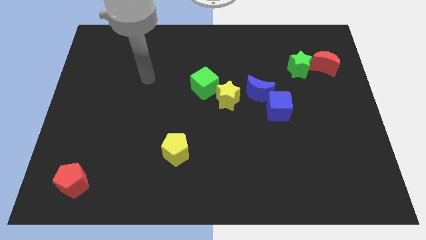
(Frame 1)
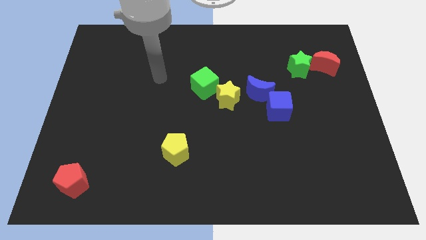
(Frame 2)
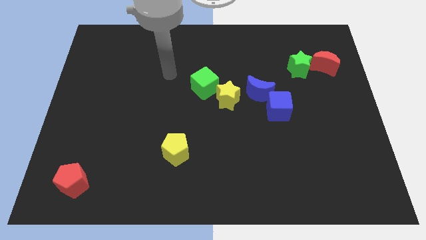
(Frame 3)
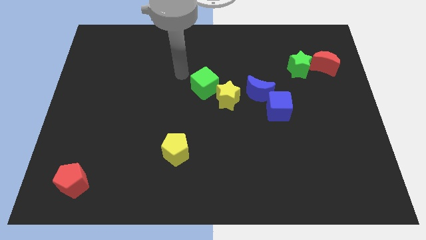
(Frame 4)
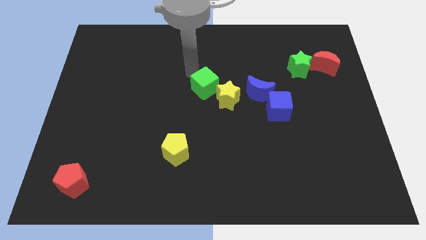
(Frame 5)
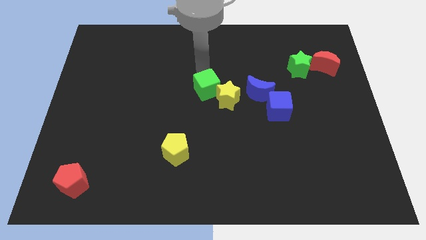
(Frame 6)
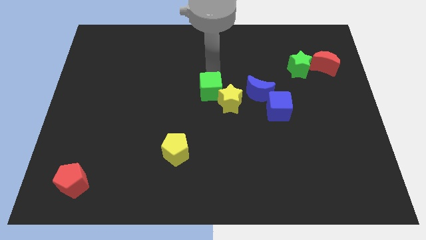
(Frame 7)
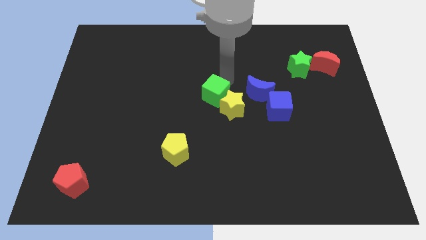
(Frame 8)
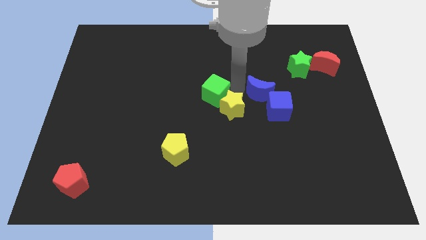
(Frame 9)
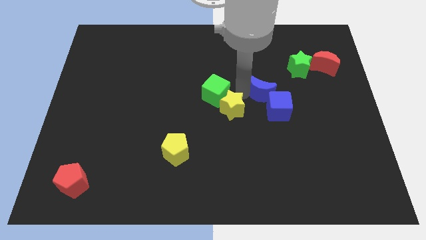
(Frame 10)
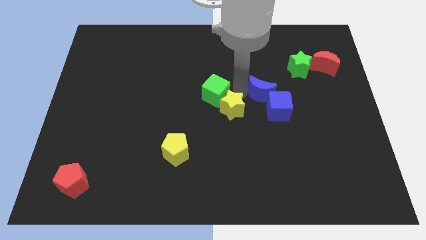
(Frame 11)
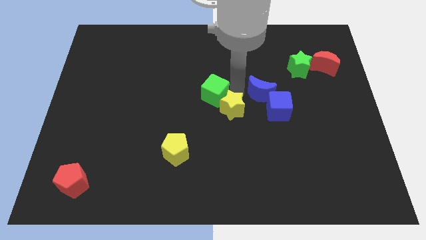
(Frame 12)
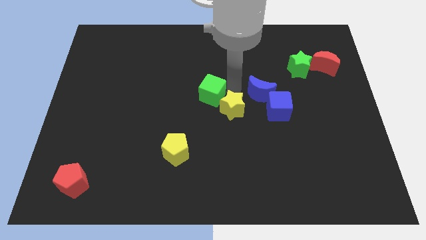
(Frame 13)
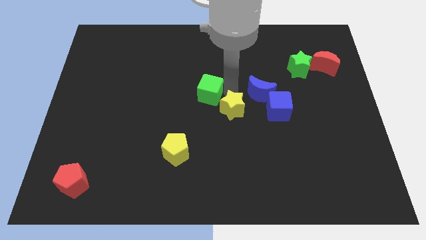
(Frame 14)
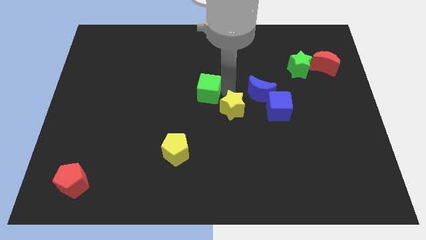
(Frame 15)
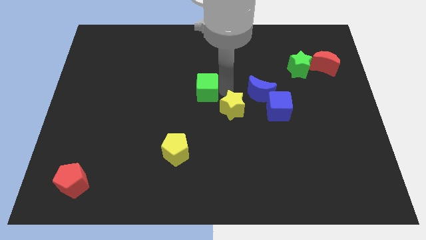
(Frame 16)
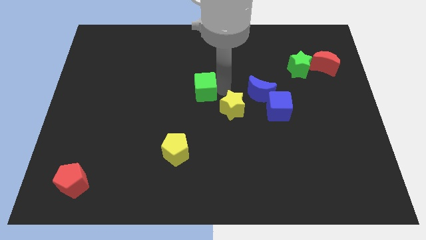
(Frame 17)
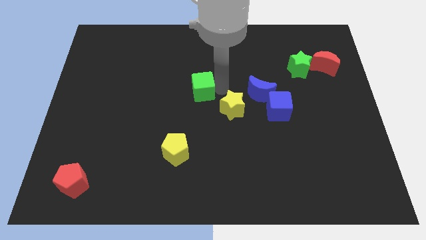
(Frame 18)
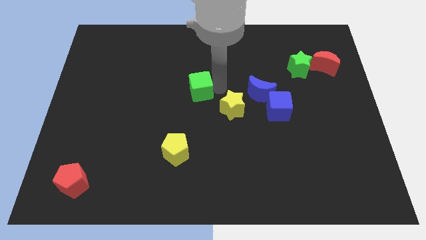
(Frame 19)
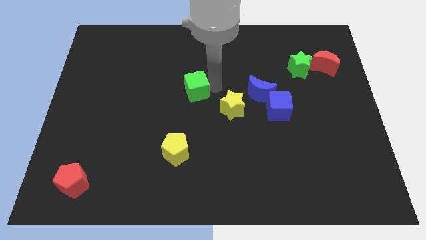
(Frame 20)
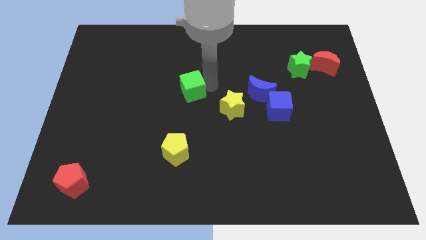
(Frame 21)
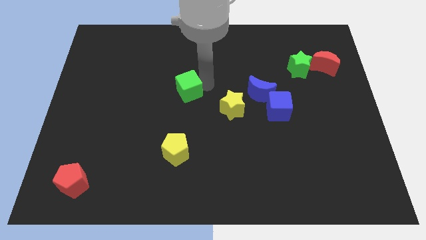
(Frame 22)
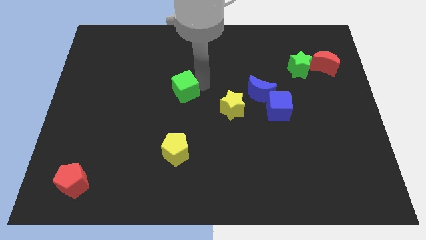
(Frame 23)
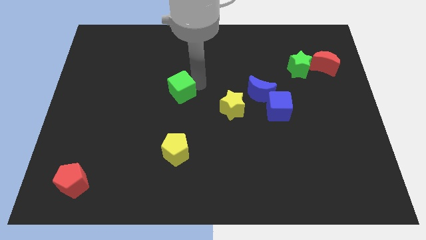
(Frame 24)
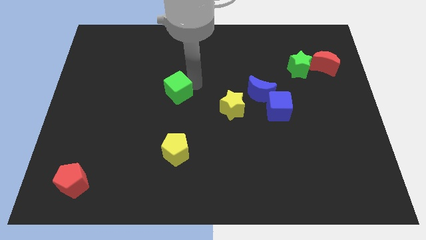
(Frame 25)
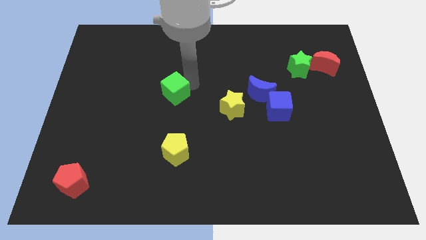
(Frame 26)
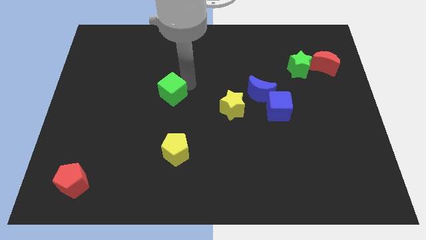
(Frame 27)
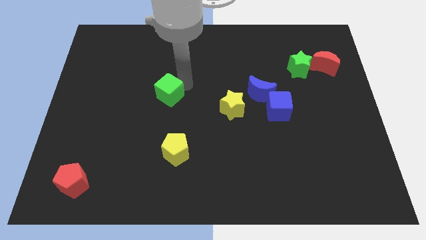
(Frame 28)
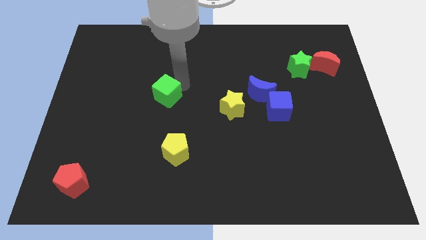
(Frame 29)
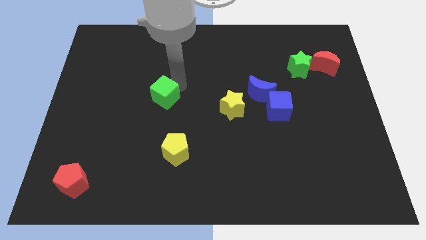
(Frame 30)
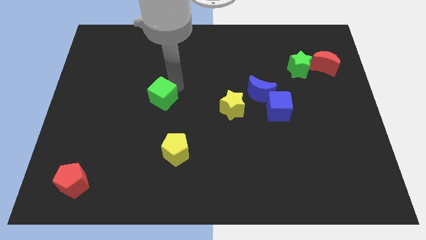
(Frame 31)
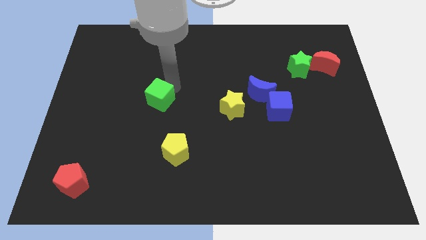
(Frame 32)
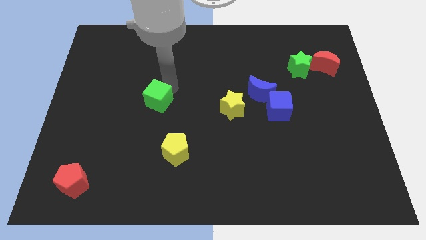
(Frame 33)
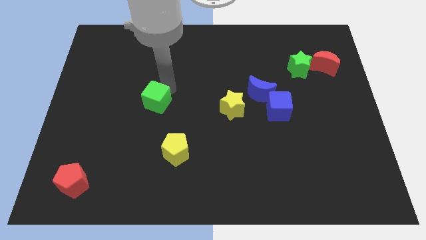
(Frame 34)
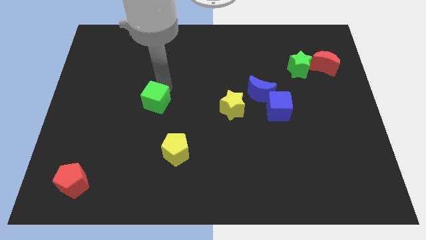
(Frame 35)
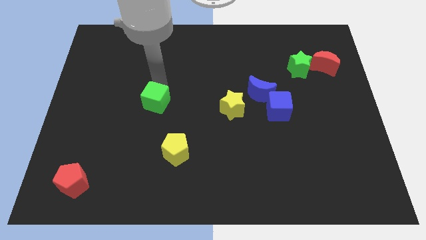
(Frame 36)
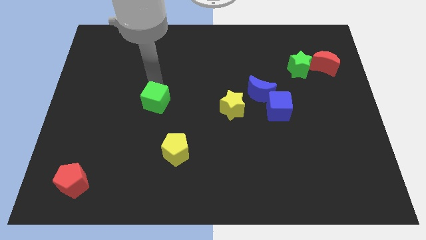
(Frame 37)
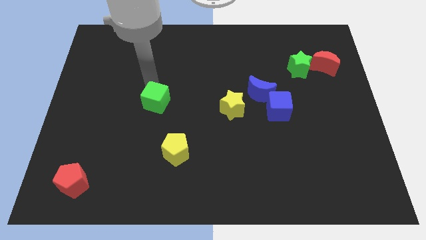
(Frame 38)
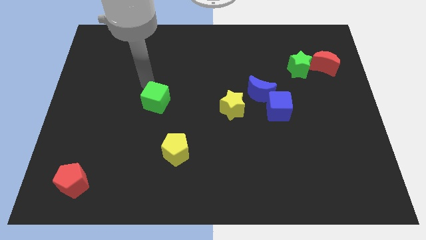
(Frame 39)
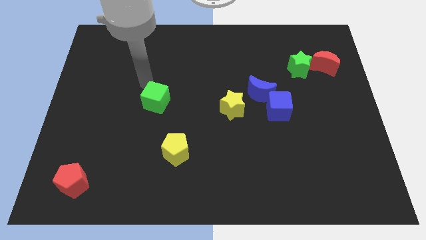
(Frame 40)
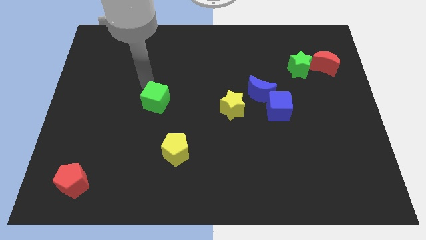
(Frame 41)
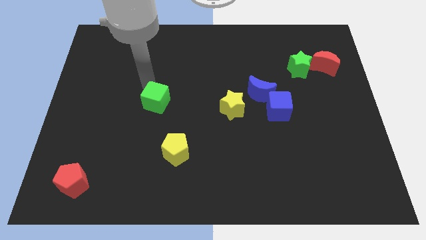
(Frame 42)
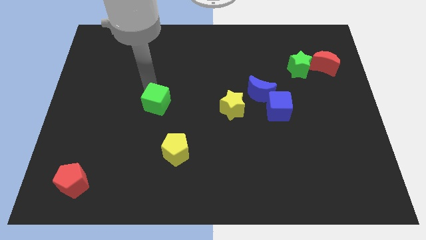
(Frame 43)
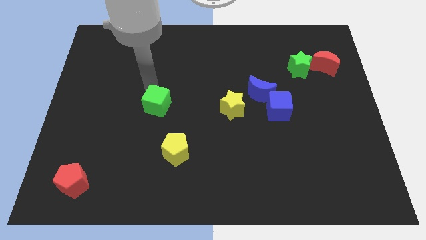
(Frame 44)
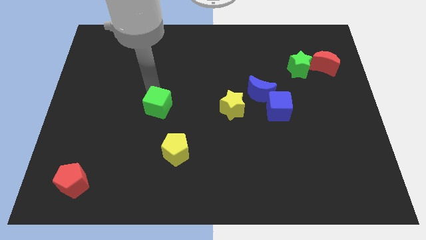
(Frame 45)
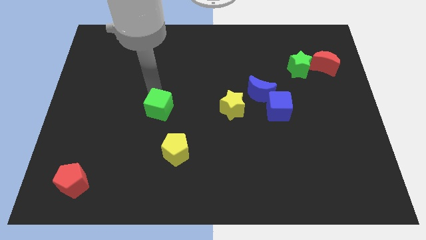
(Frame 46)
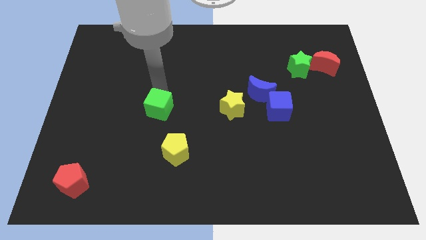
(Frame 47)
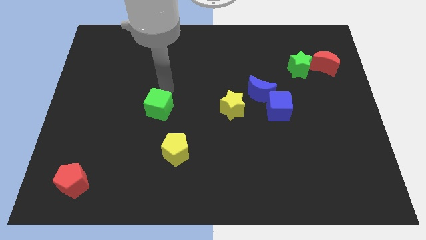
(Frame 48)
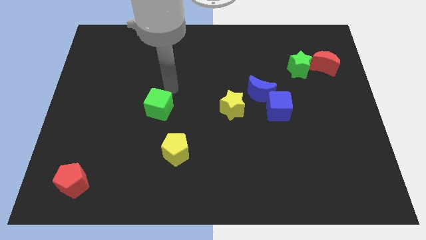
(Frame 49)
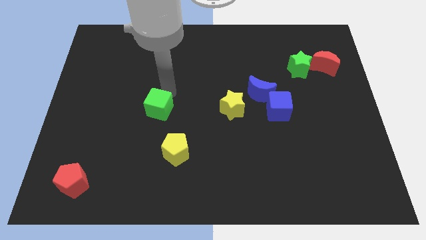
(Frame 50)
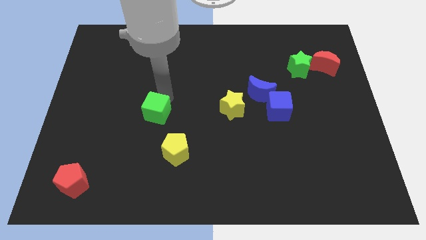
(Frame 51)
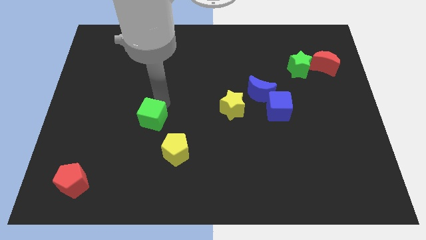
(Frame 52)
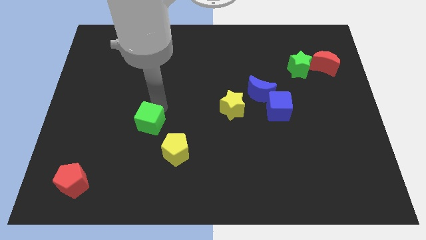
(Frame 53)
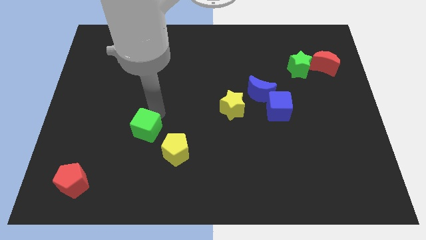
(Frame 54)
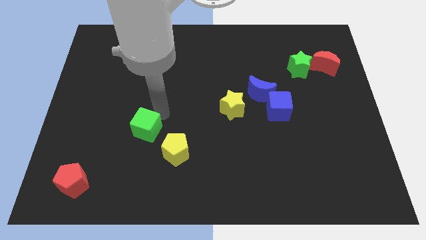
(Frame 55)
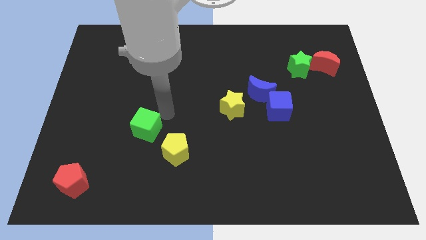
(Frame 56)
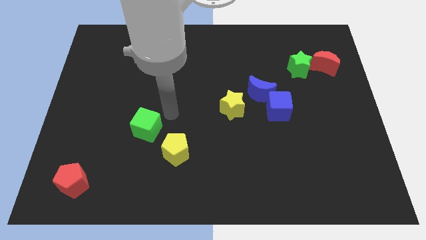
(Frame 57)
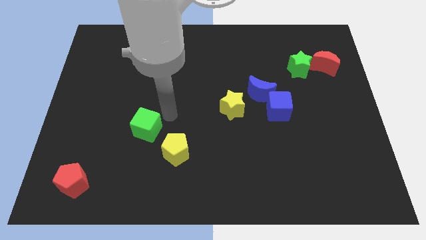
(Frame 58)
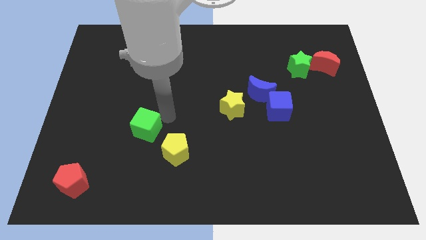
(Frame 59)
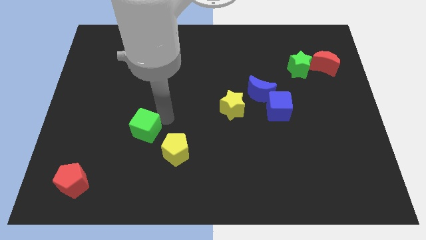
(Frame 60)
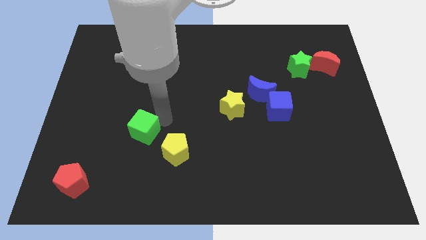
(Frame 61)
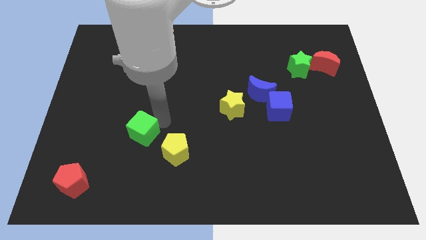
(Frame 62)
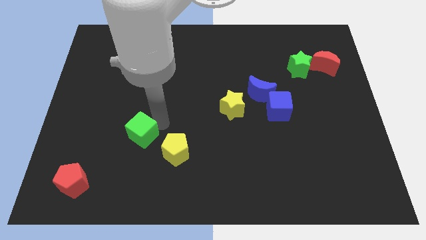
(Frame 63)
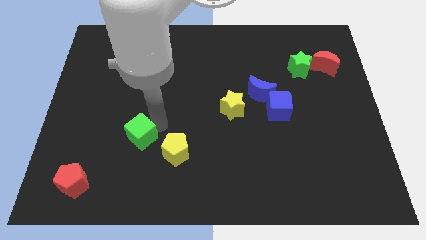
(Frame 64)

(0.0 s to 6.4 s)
move the green cube downwards and to the left diagonally

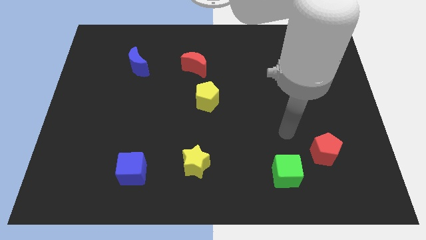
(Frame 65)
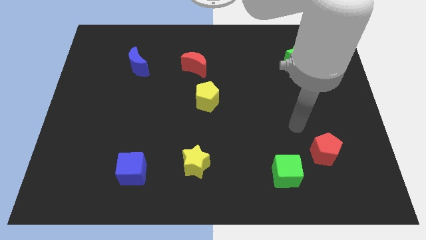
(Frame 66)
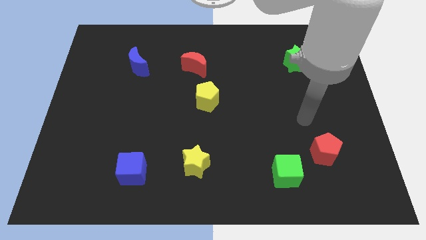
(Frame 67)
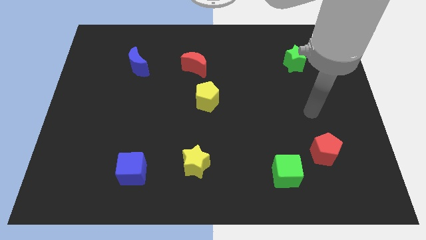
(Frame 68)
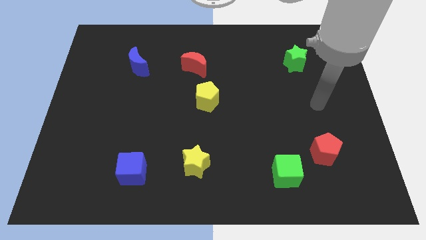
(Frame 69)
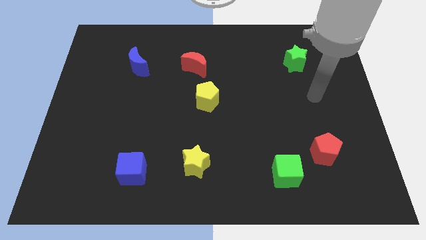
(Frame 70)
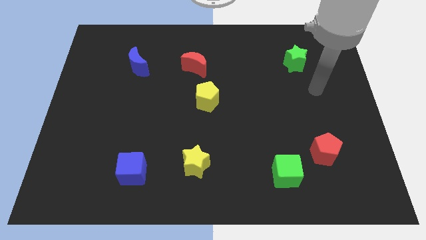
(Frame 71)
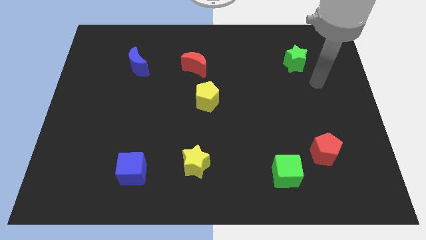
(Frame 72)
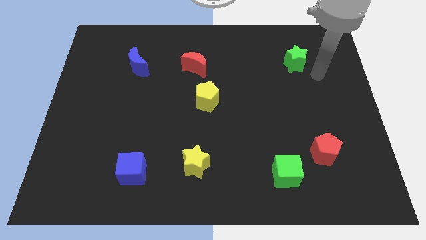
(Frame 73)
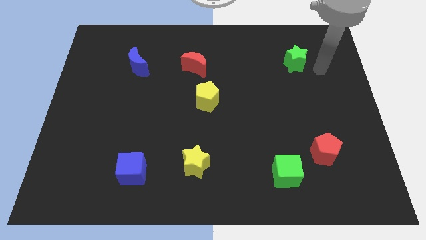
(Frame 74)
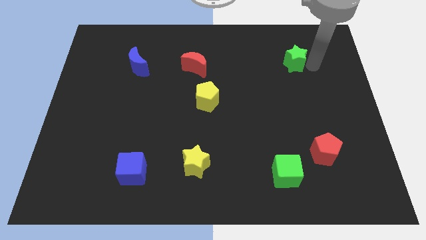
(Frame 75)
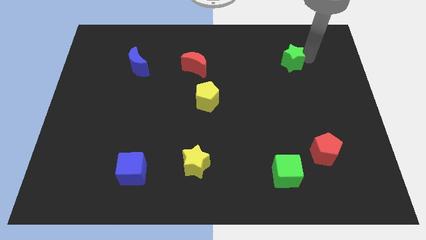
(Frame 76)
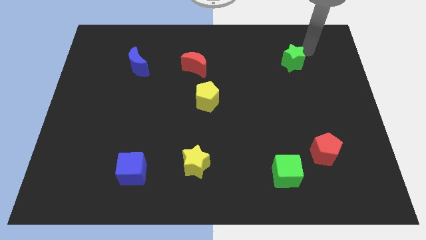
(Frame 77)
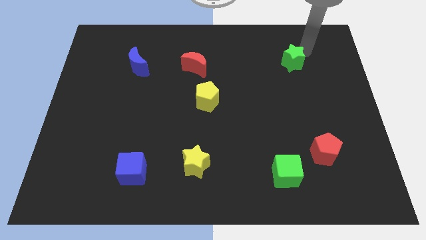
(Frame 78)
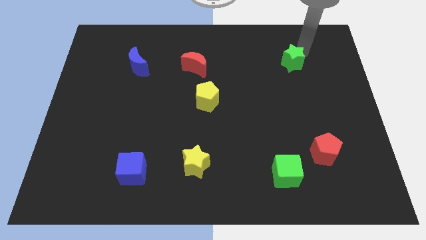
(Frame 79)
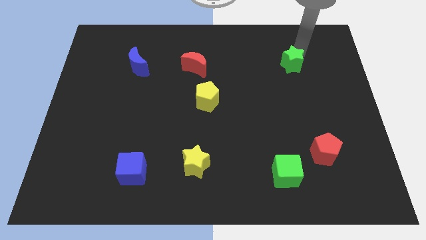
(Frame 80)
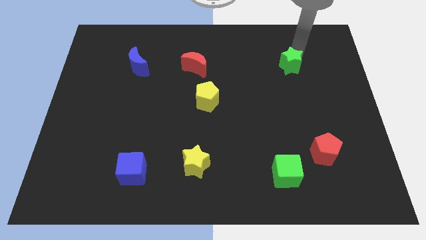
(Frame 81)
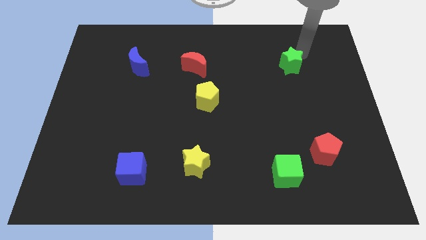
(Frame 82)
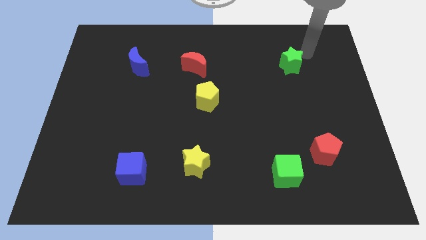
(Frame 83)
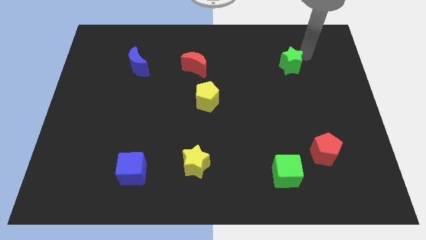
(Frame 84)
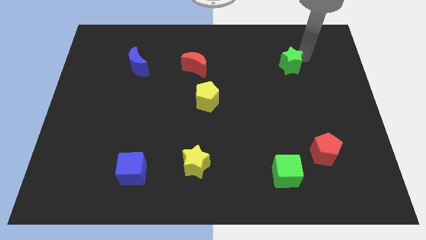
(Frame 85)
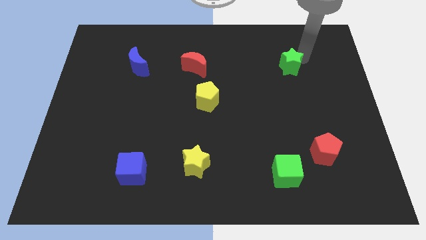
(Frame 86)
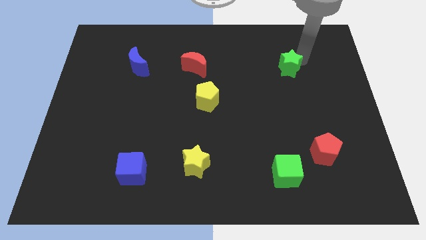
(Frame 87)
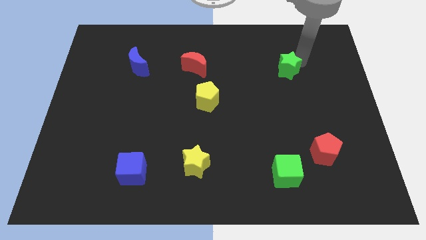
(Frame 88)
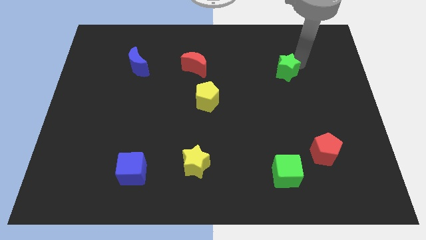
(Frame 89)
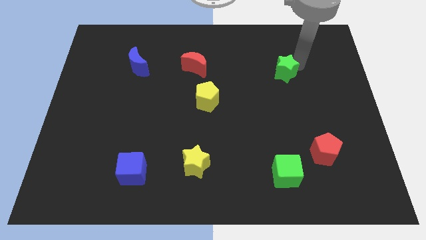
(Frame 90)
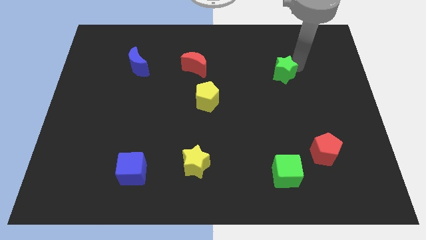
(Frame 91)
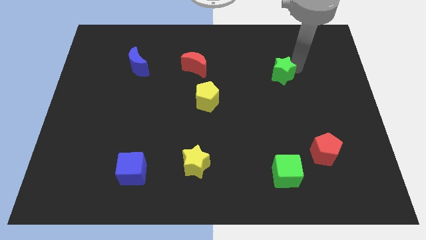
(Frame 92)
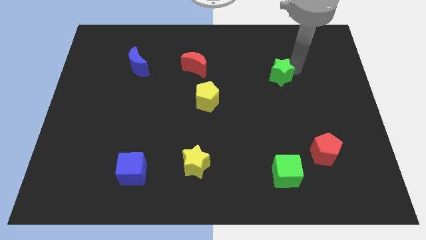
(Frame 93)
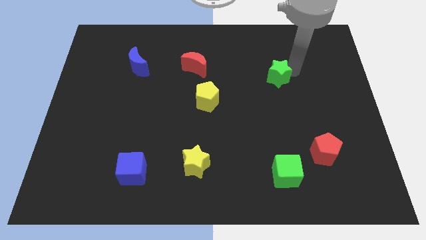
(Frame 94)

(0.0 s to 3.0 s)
slightly push the green star diagonally down and to the left
